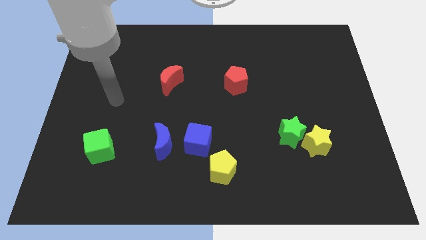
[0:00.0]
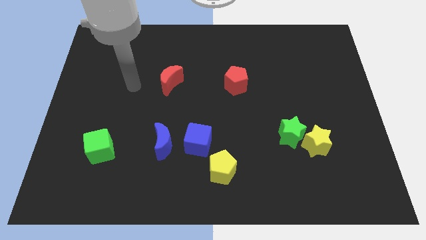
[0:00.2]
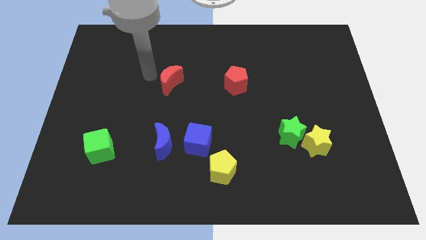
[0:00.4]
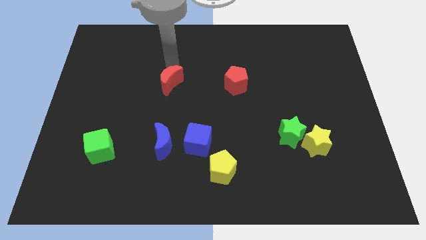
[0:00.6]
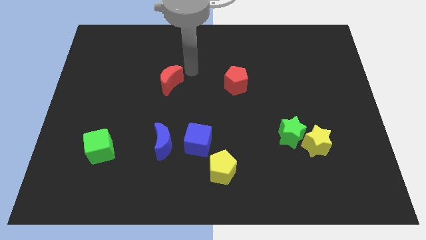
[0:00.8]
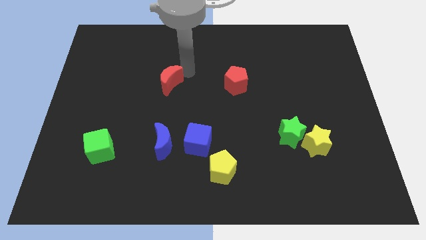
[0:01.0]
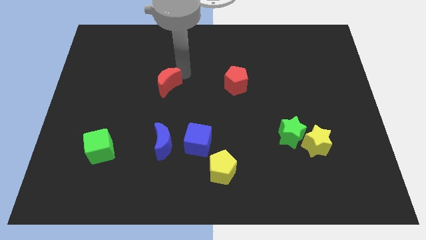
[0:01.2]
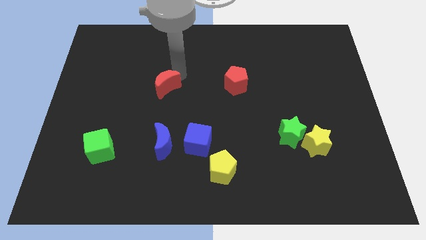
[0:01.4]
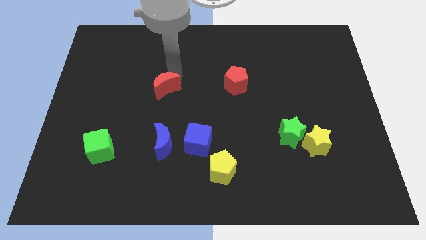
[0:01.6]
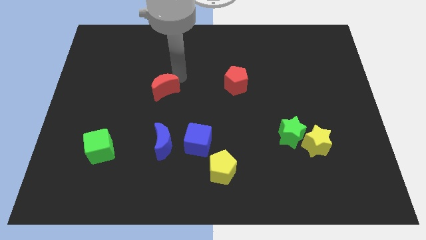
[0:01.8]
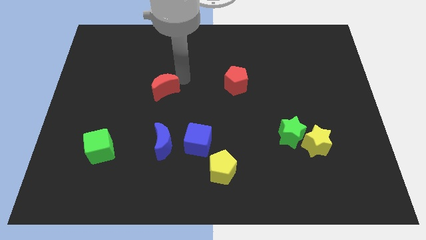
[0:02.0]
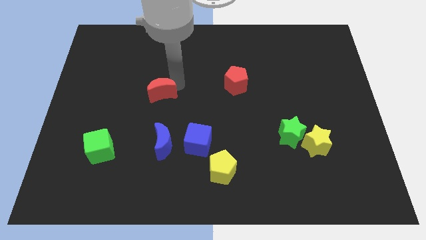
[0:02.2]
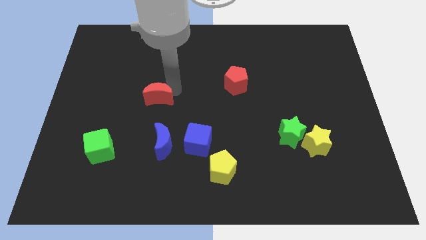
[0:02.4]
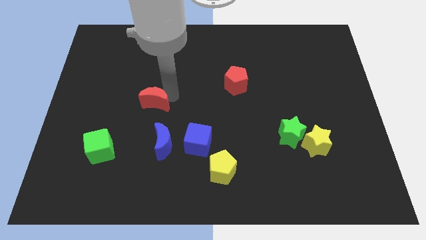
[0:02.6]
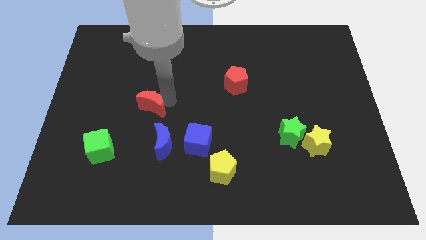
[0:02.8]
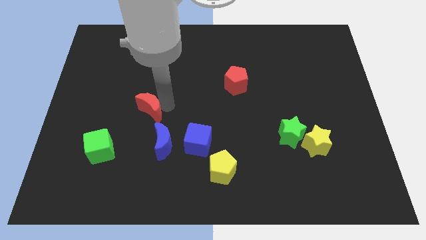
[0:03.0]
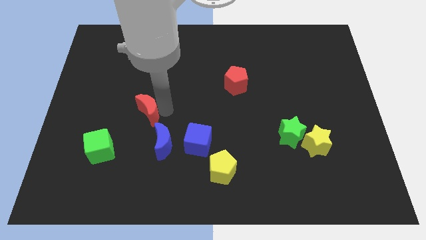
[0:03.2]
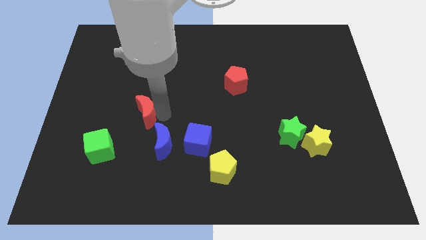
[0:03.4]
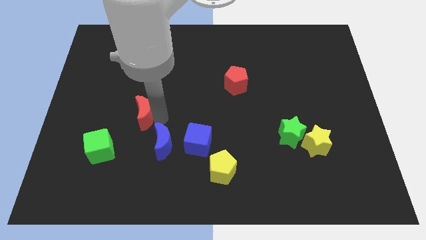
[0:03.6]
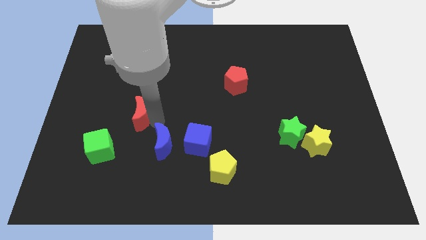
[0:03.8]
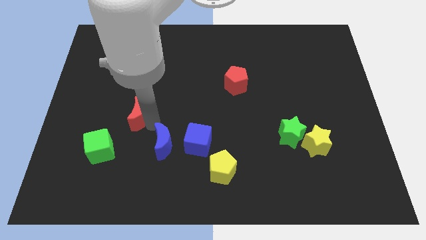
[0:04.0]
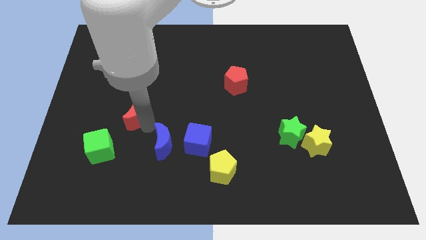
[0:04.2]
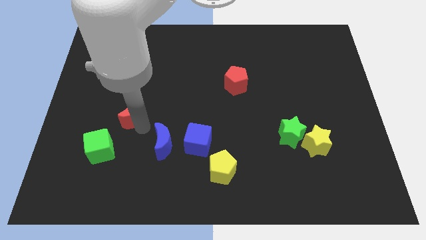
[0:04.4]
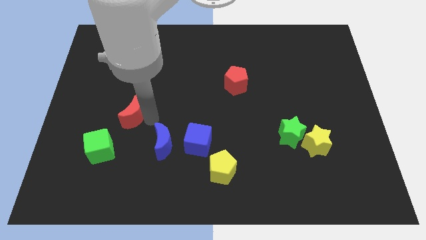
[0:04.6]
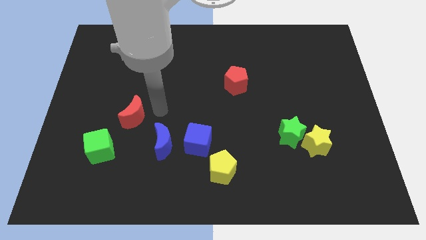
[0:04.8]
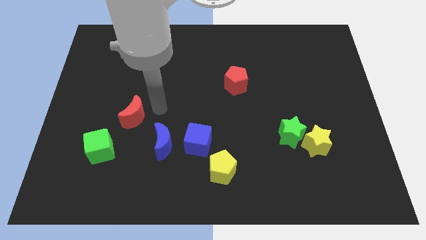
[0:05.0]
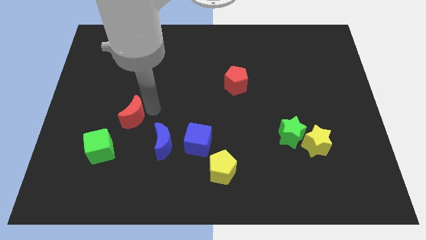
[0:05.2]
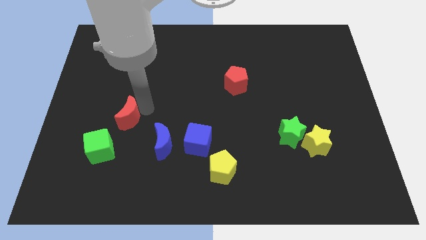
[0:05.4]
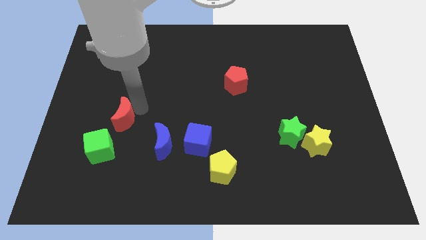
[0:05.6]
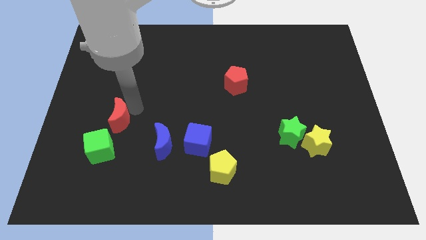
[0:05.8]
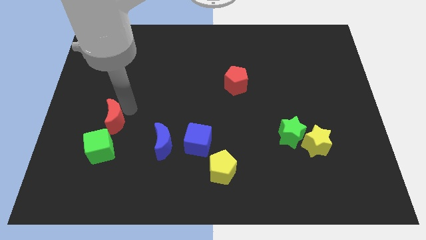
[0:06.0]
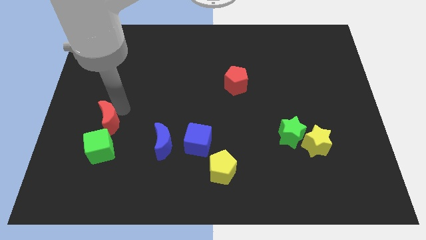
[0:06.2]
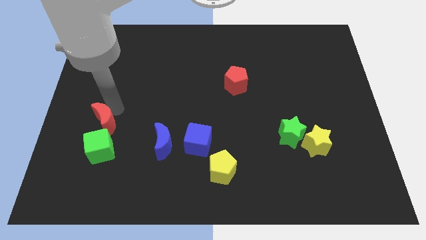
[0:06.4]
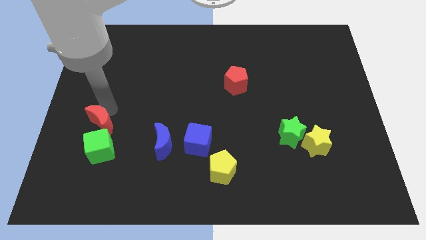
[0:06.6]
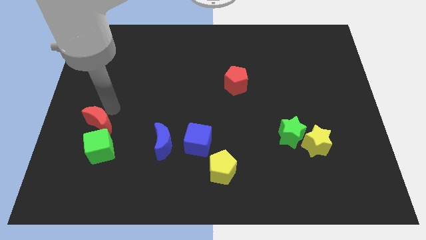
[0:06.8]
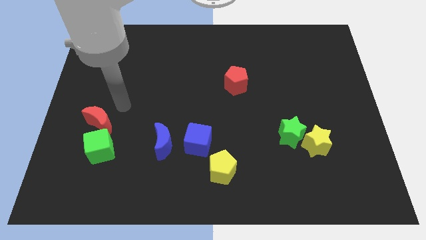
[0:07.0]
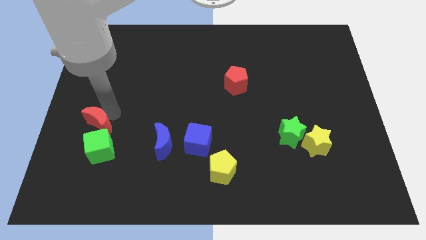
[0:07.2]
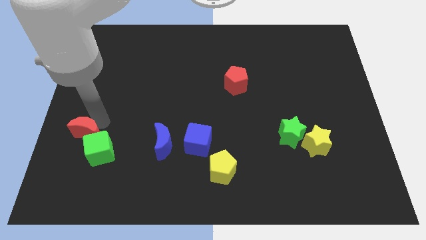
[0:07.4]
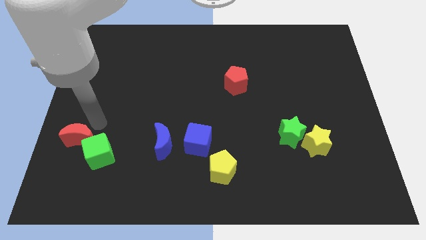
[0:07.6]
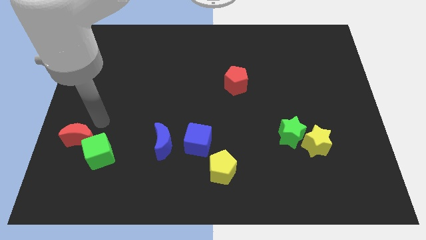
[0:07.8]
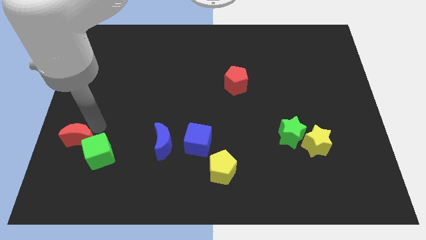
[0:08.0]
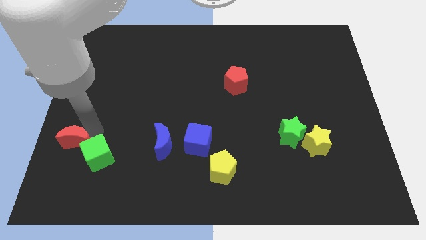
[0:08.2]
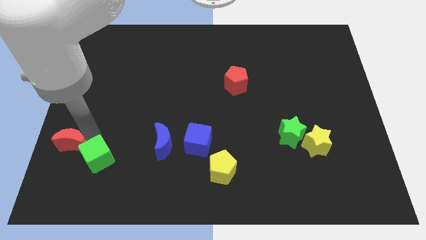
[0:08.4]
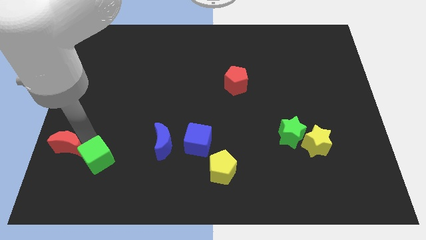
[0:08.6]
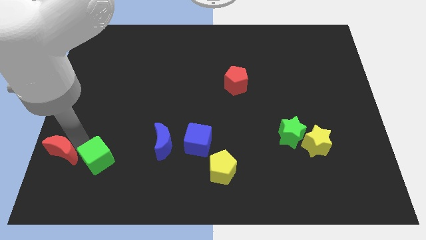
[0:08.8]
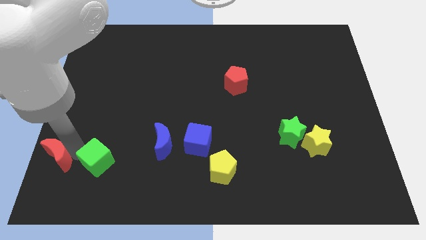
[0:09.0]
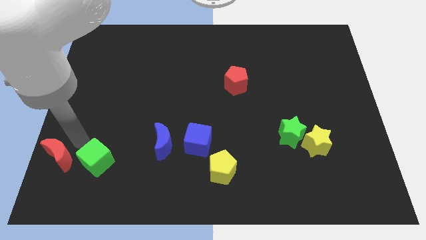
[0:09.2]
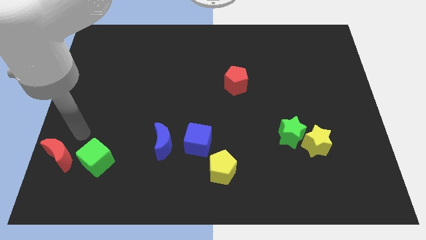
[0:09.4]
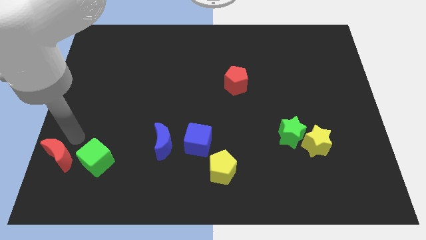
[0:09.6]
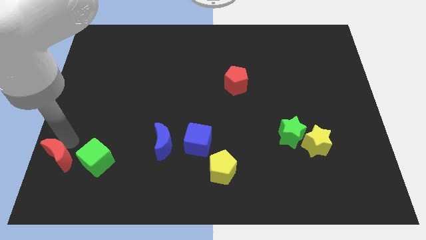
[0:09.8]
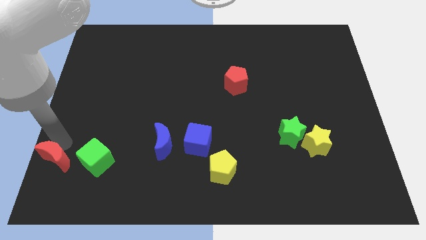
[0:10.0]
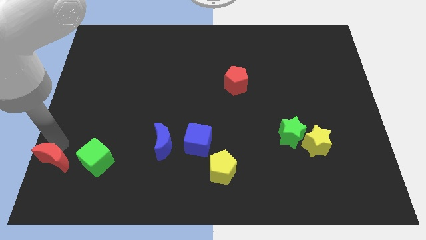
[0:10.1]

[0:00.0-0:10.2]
push the red moon to the bottom left

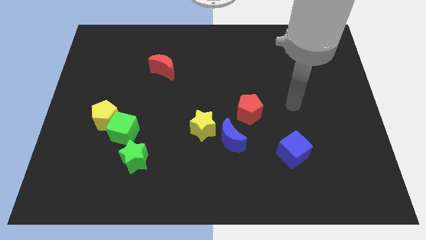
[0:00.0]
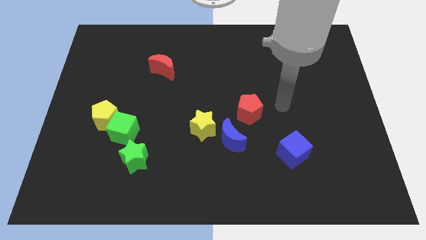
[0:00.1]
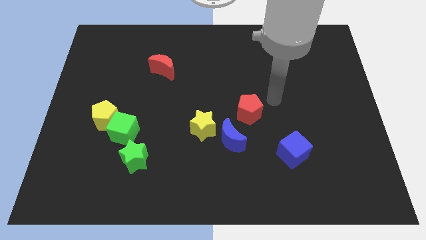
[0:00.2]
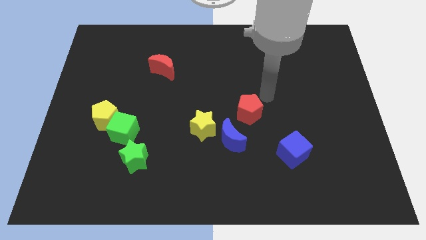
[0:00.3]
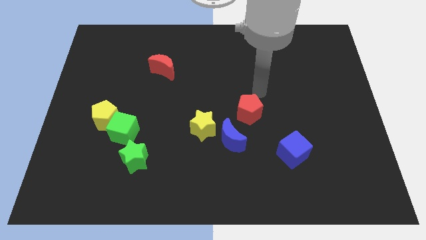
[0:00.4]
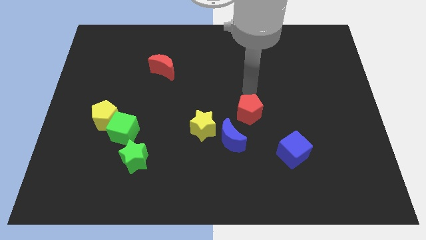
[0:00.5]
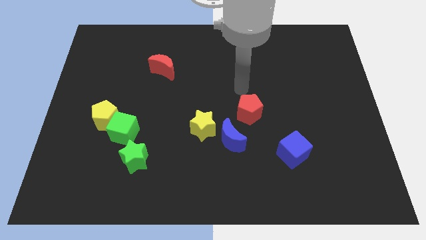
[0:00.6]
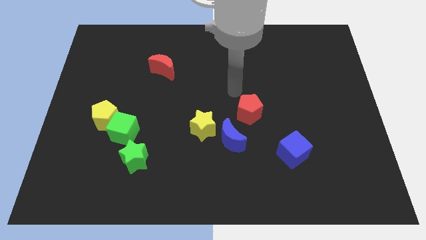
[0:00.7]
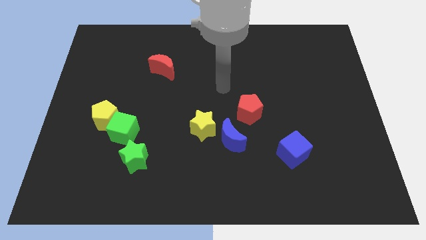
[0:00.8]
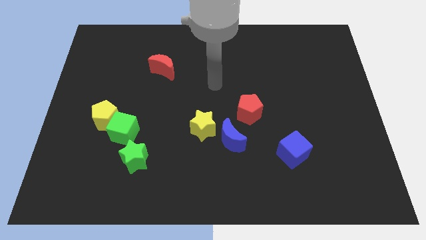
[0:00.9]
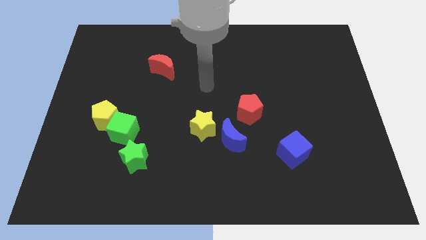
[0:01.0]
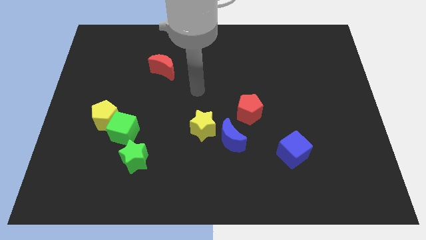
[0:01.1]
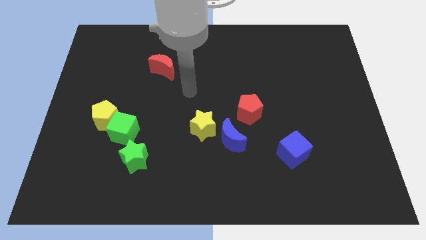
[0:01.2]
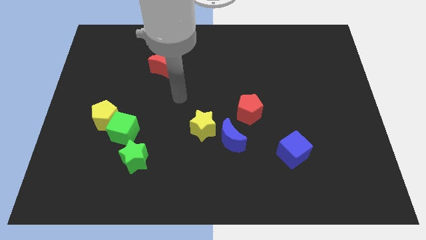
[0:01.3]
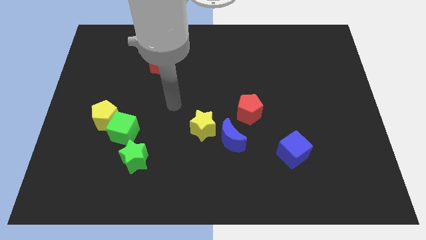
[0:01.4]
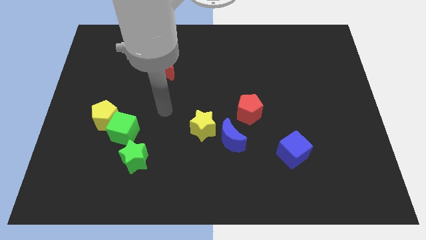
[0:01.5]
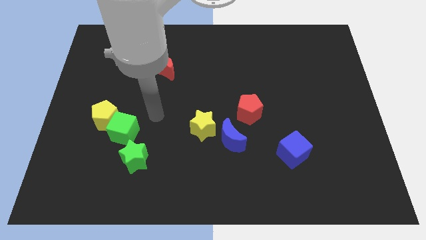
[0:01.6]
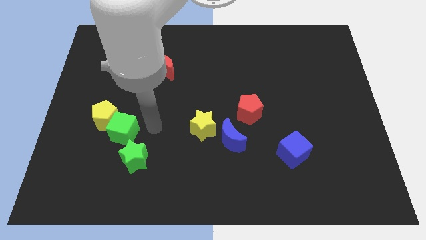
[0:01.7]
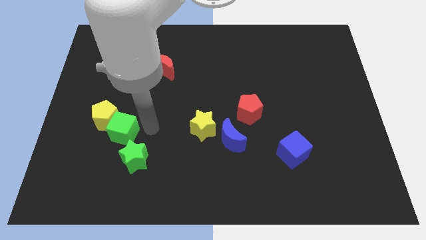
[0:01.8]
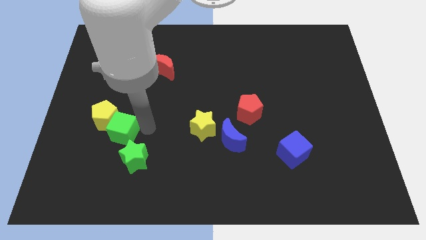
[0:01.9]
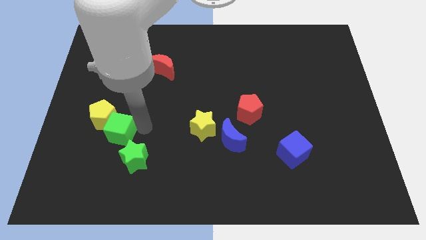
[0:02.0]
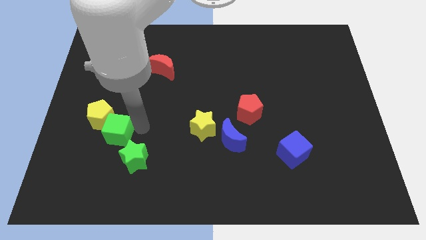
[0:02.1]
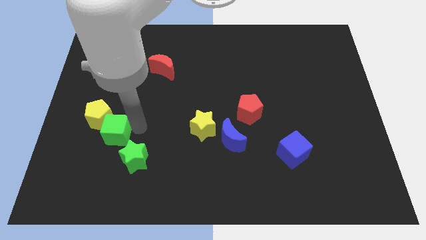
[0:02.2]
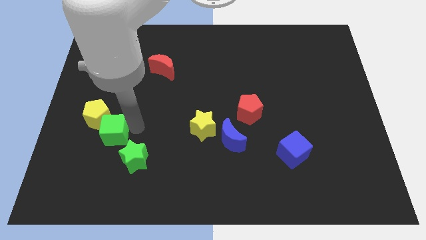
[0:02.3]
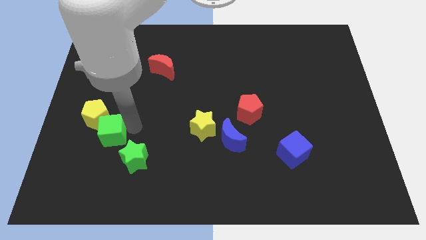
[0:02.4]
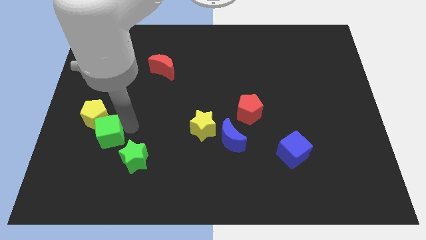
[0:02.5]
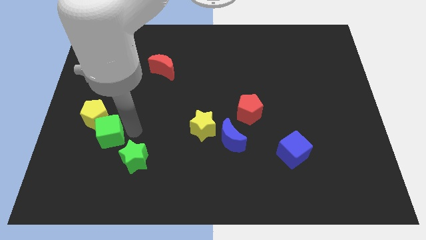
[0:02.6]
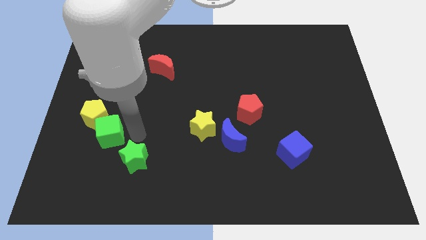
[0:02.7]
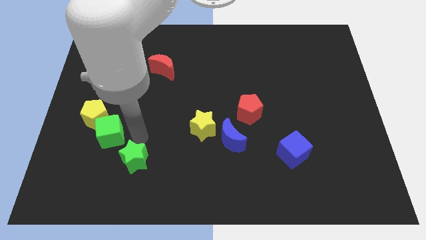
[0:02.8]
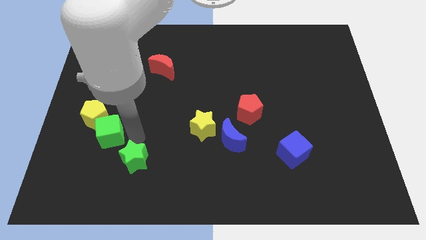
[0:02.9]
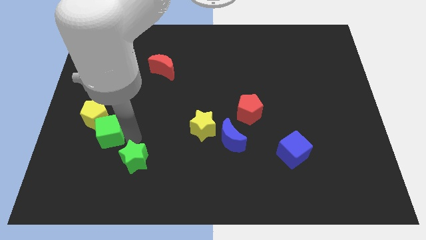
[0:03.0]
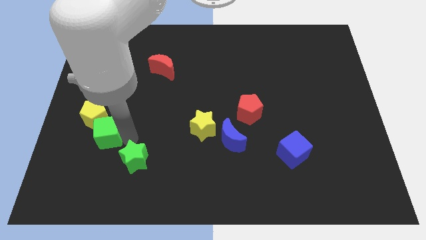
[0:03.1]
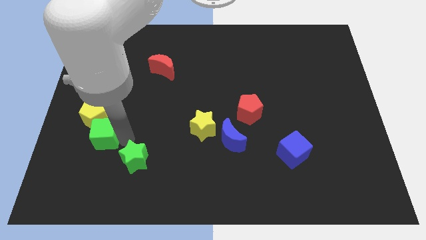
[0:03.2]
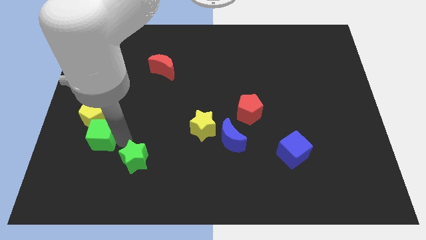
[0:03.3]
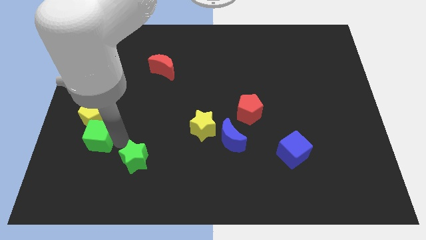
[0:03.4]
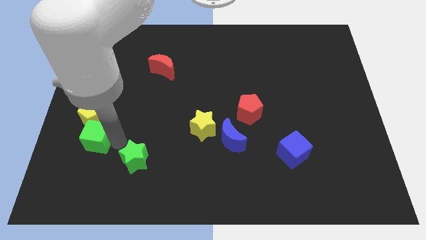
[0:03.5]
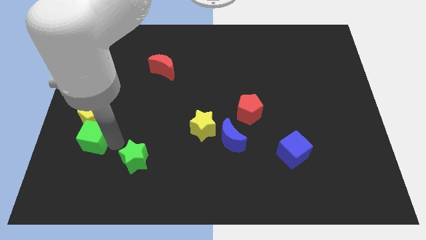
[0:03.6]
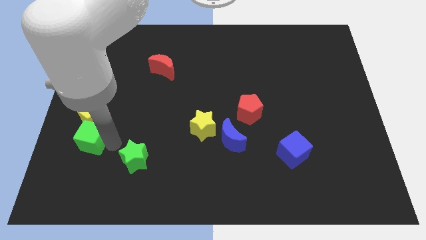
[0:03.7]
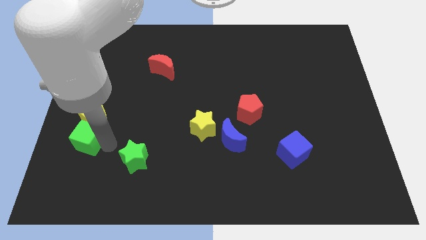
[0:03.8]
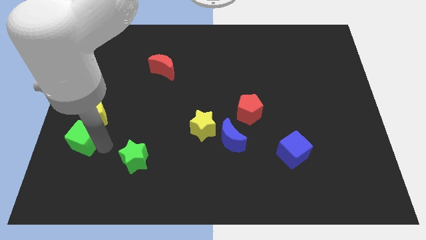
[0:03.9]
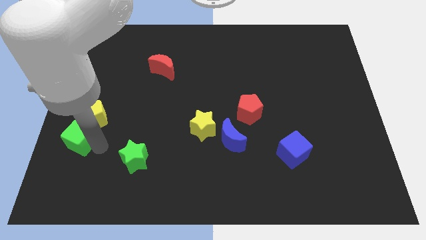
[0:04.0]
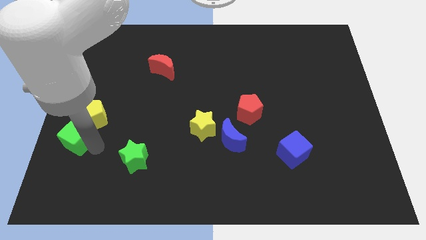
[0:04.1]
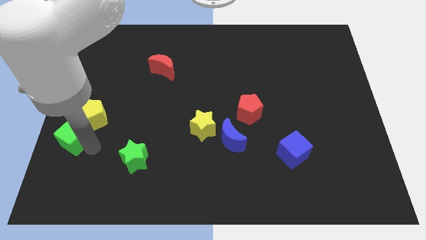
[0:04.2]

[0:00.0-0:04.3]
move the green cube to the left side of the board
